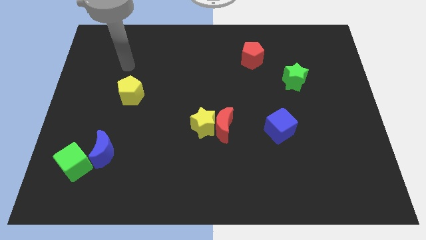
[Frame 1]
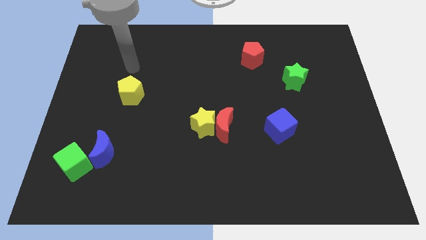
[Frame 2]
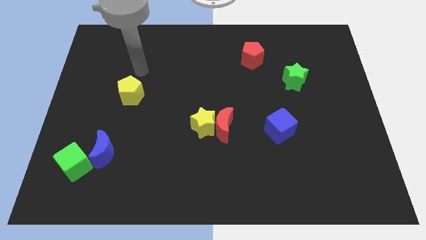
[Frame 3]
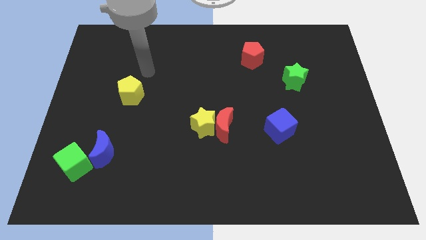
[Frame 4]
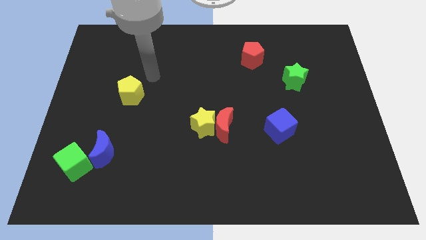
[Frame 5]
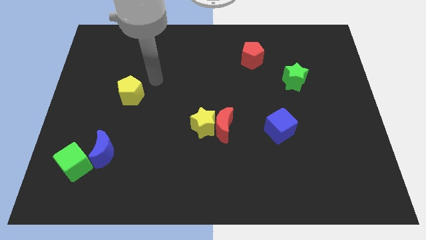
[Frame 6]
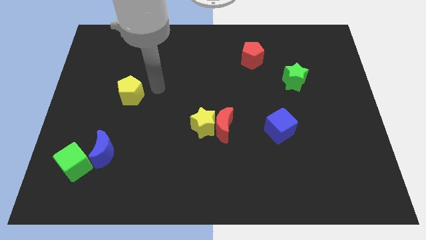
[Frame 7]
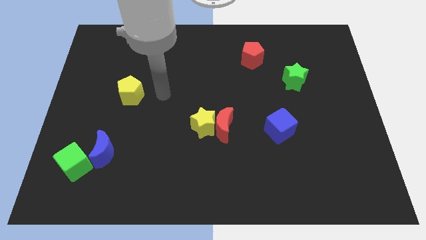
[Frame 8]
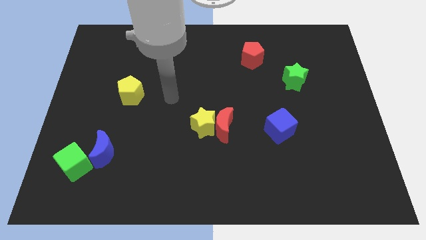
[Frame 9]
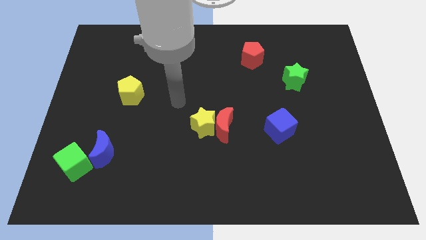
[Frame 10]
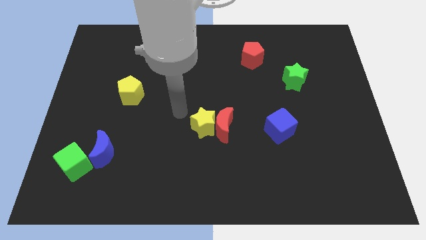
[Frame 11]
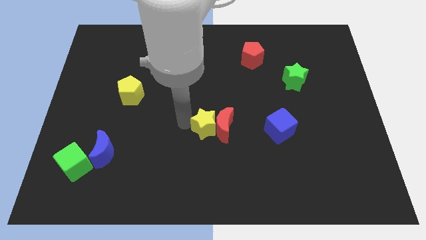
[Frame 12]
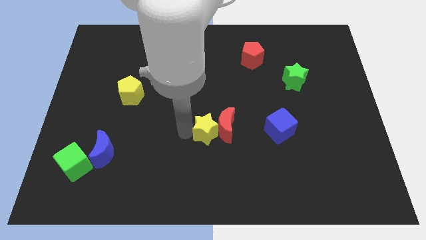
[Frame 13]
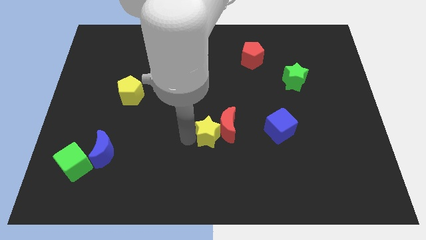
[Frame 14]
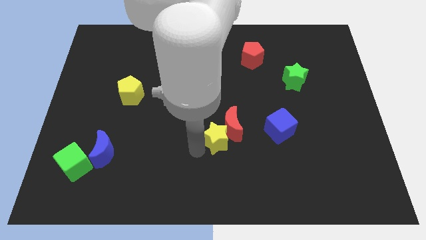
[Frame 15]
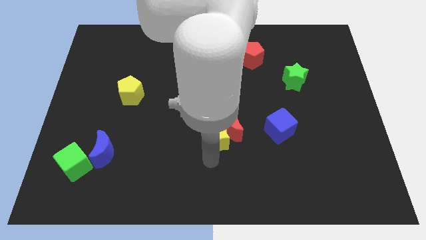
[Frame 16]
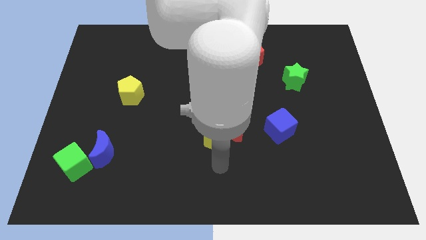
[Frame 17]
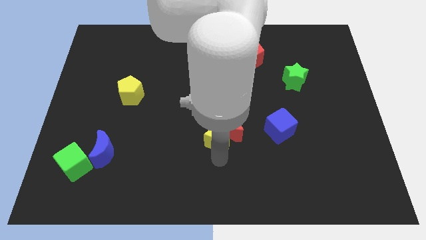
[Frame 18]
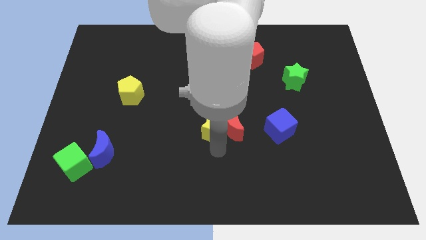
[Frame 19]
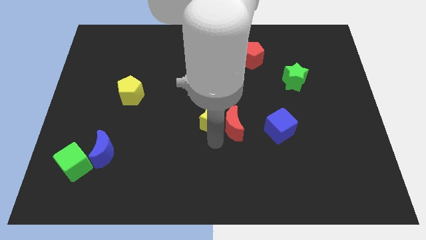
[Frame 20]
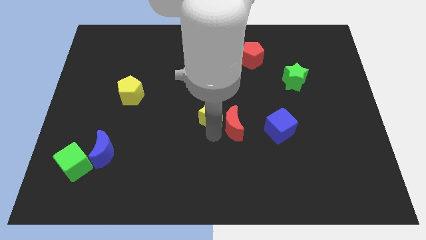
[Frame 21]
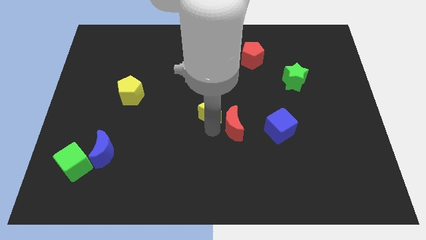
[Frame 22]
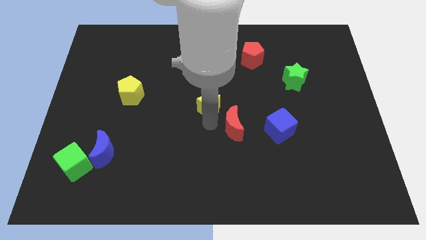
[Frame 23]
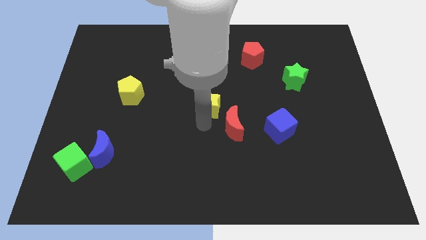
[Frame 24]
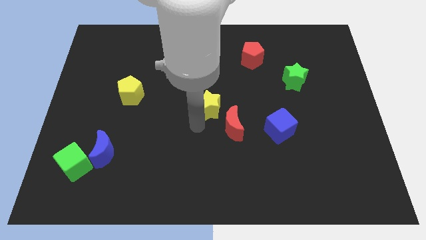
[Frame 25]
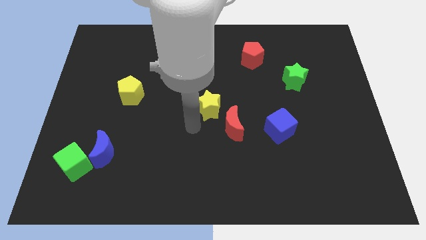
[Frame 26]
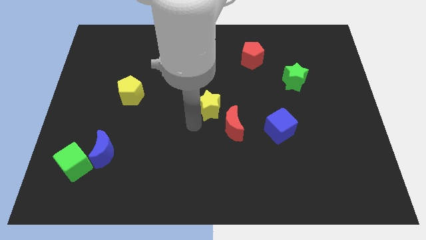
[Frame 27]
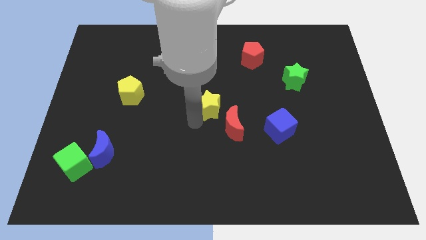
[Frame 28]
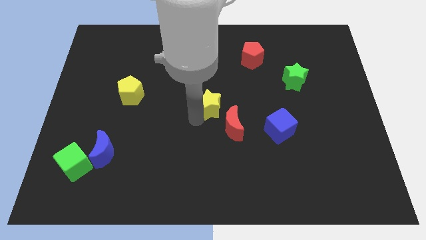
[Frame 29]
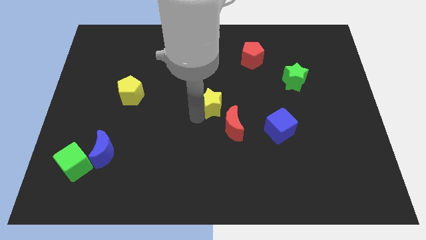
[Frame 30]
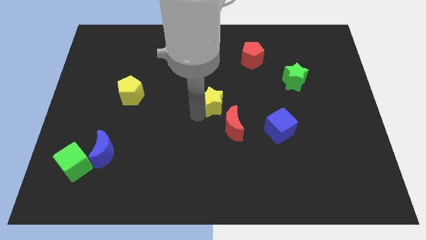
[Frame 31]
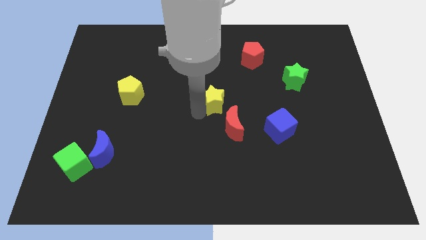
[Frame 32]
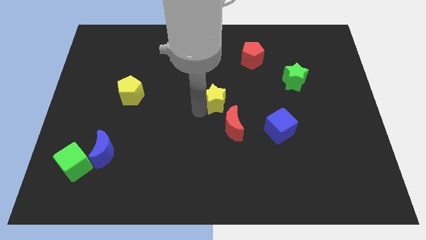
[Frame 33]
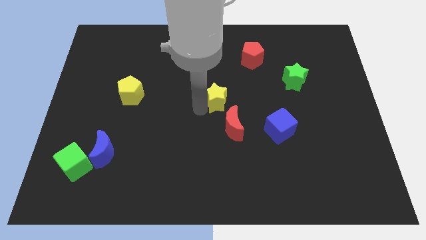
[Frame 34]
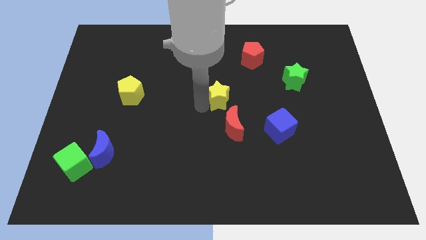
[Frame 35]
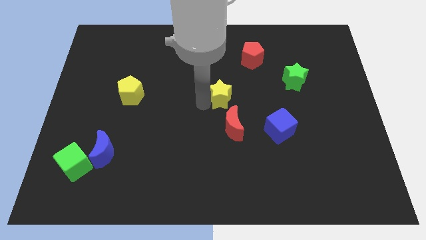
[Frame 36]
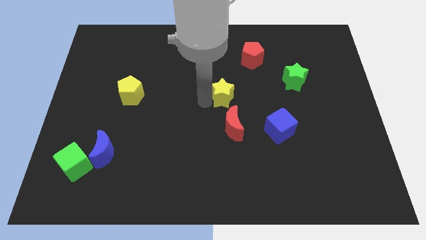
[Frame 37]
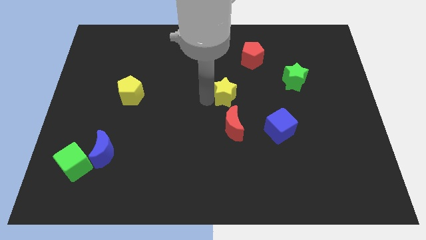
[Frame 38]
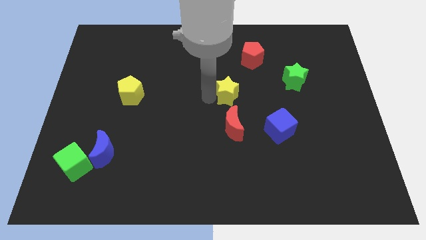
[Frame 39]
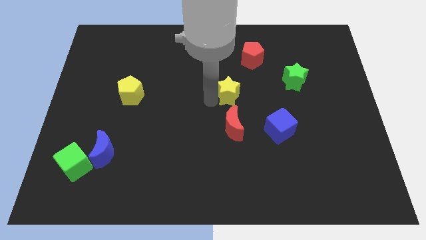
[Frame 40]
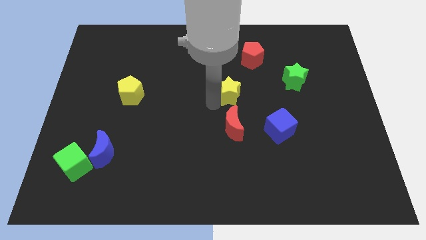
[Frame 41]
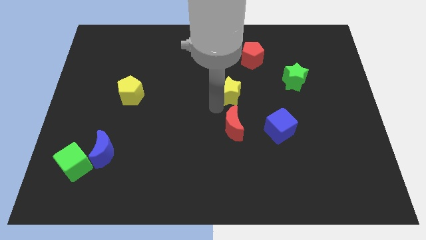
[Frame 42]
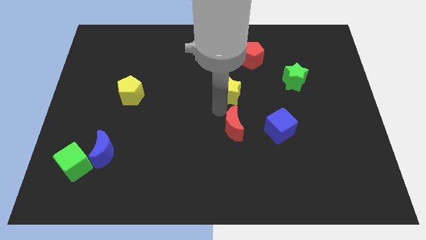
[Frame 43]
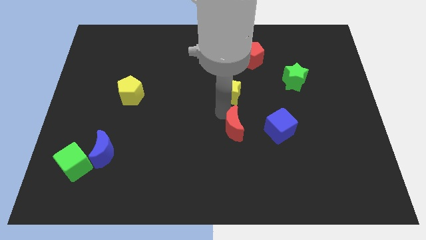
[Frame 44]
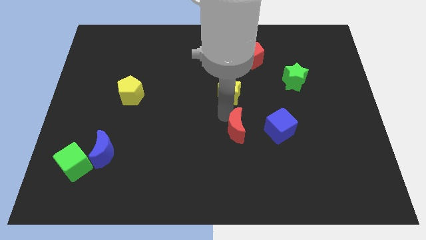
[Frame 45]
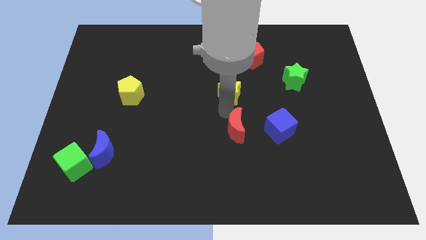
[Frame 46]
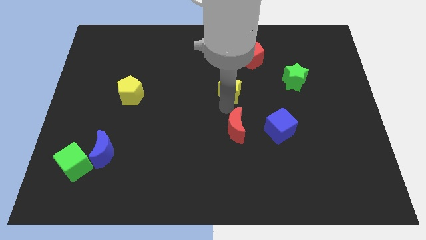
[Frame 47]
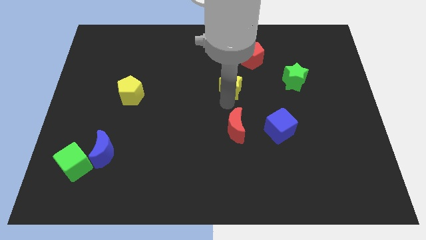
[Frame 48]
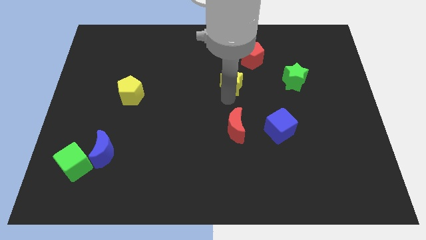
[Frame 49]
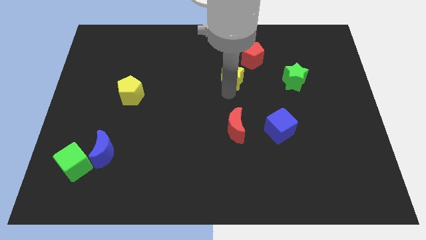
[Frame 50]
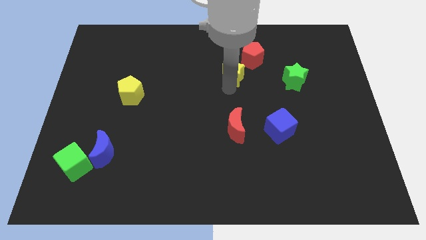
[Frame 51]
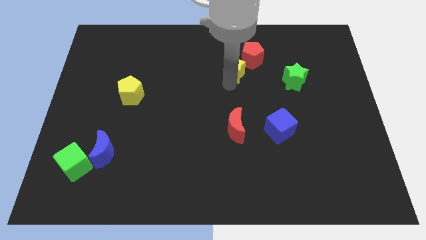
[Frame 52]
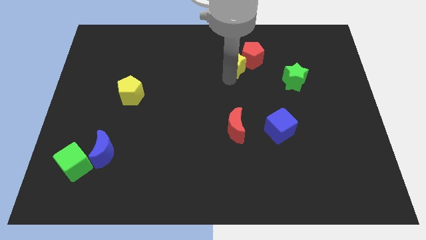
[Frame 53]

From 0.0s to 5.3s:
move the yellow star close to the red pentagon

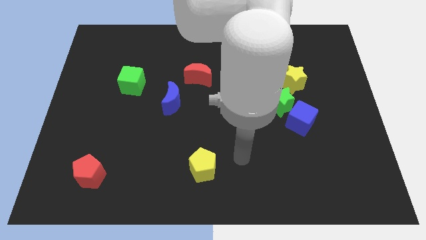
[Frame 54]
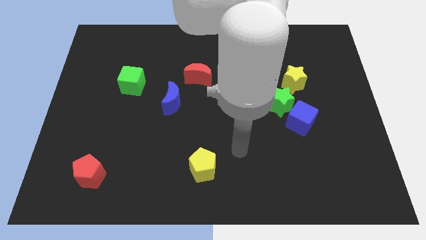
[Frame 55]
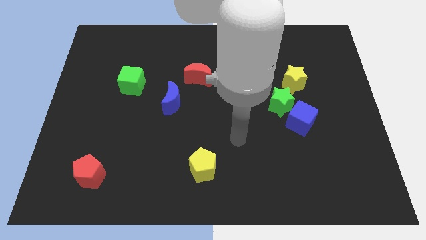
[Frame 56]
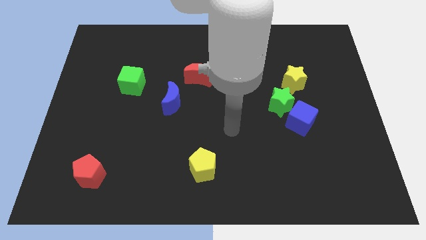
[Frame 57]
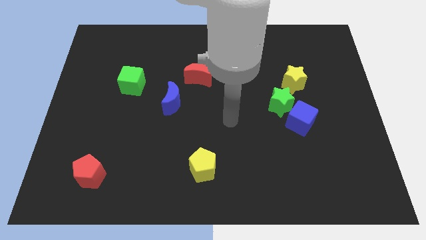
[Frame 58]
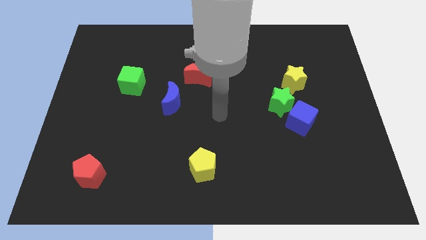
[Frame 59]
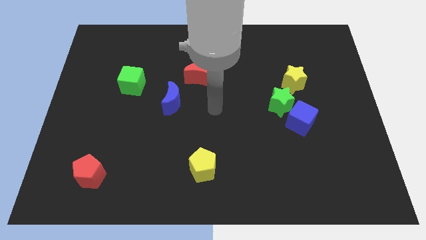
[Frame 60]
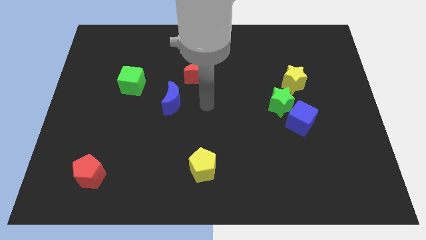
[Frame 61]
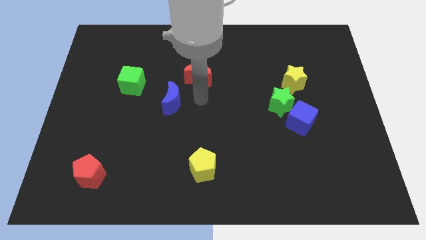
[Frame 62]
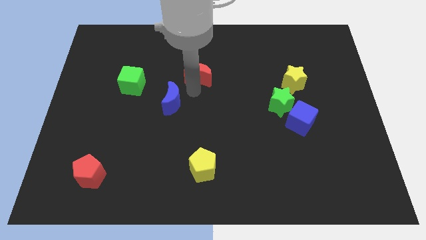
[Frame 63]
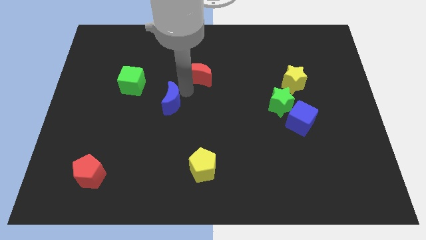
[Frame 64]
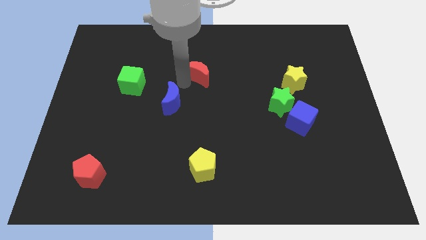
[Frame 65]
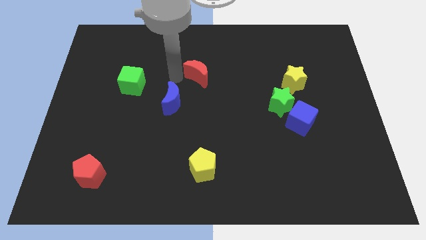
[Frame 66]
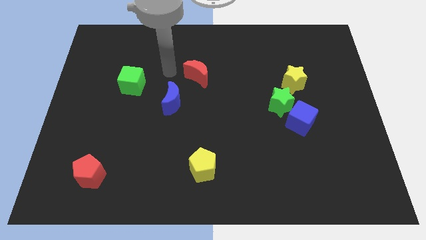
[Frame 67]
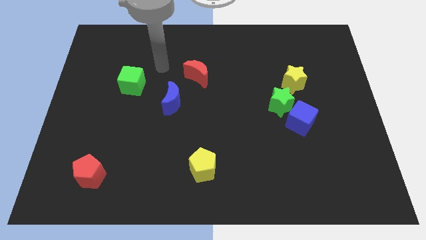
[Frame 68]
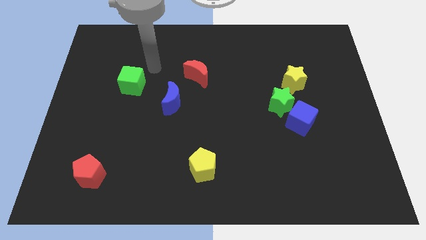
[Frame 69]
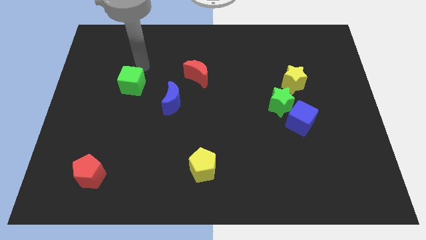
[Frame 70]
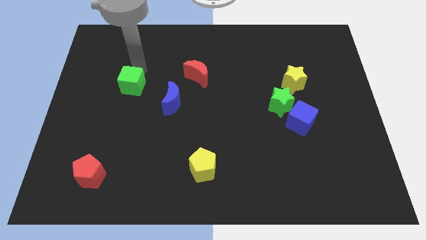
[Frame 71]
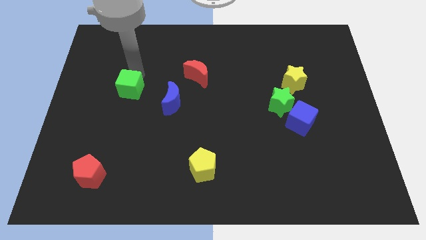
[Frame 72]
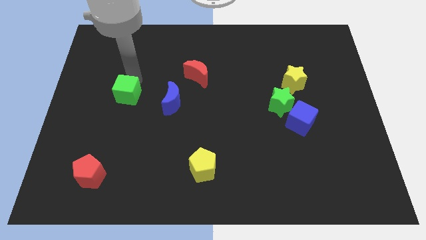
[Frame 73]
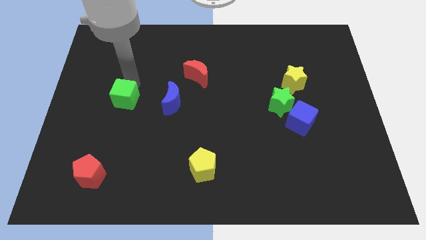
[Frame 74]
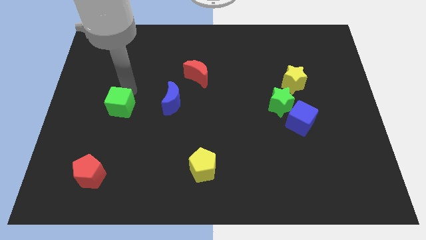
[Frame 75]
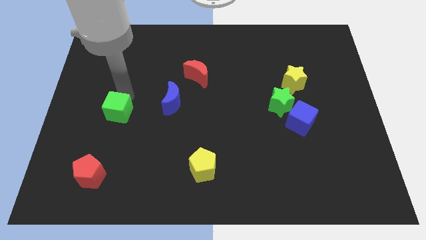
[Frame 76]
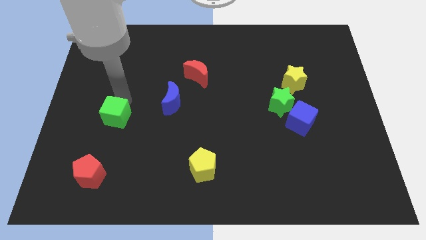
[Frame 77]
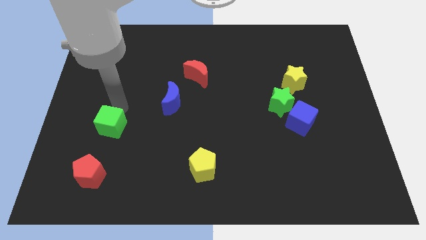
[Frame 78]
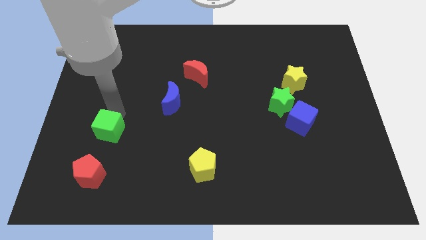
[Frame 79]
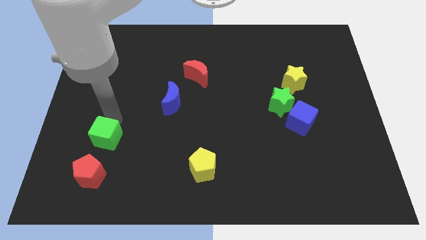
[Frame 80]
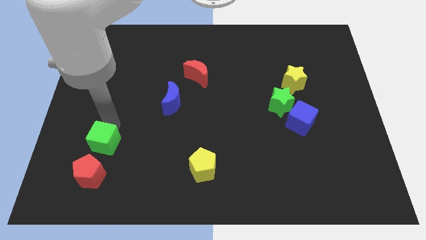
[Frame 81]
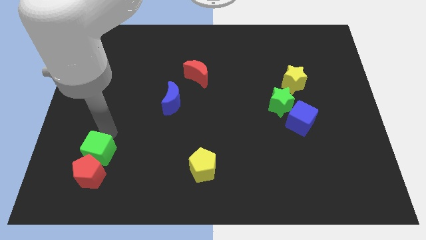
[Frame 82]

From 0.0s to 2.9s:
push the green cube close to the red pentagon
